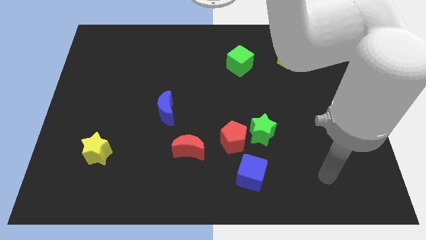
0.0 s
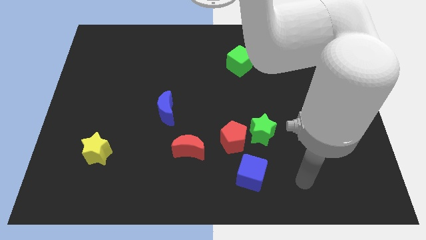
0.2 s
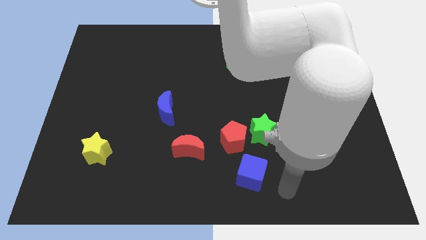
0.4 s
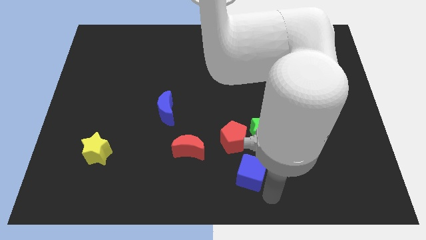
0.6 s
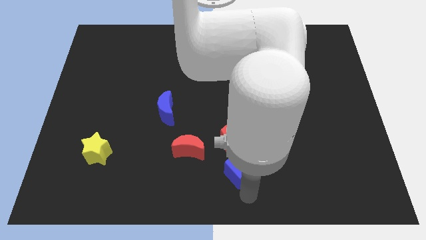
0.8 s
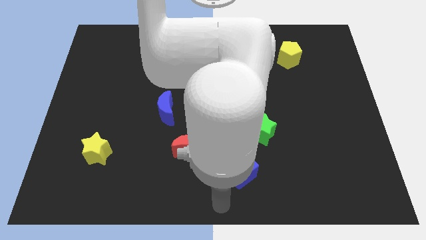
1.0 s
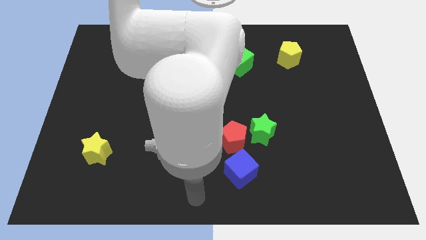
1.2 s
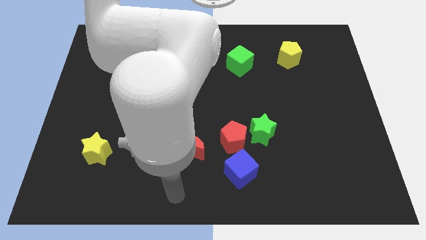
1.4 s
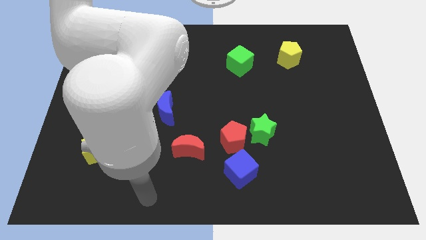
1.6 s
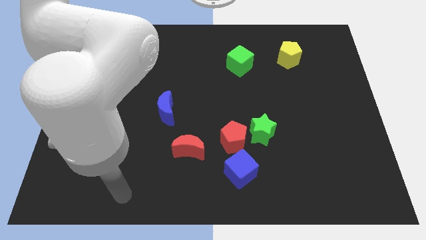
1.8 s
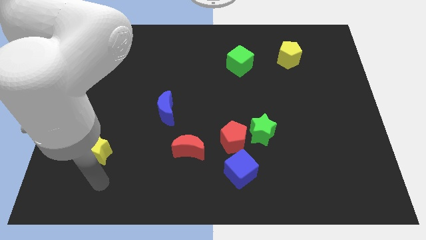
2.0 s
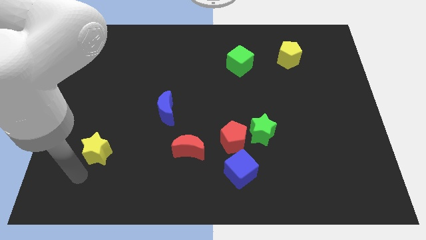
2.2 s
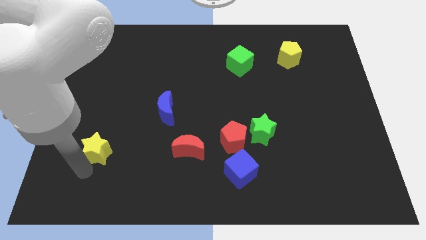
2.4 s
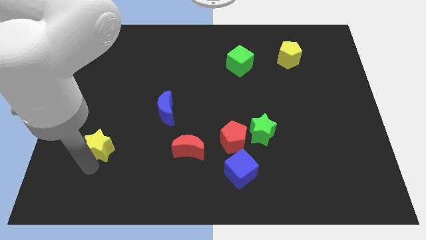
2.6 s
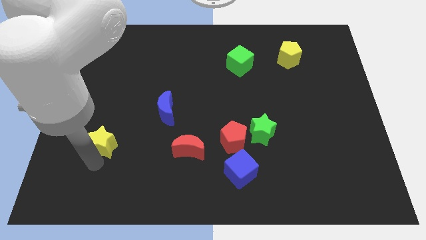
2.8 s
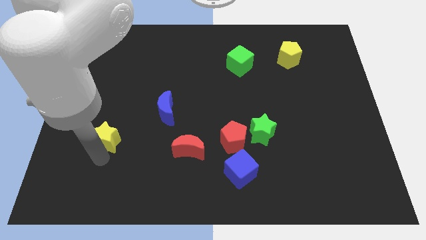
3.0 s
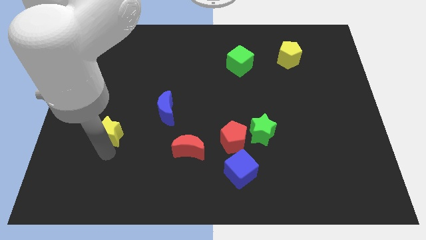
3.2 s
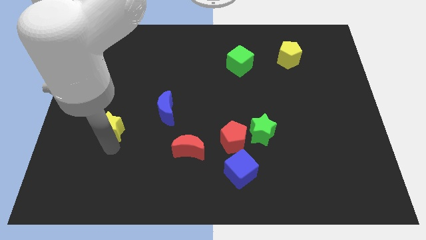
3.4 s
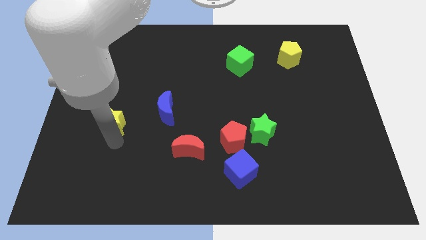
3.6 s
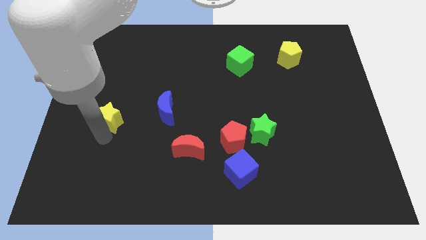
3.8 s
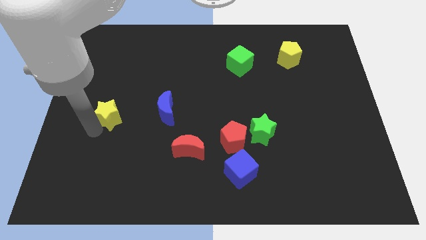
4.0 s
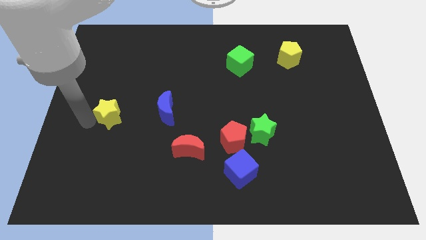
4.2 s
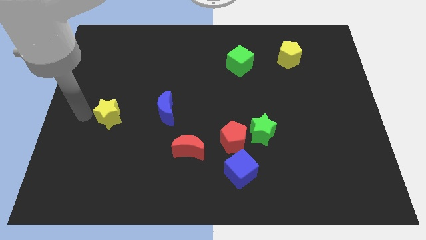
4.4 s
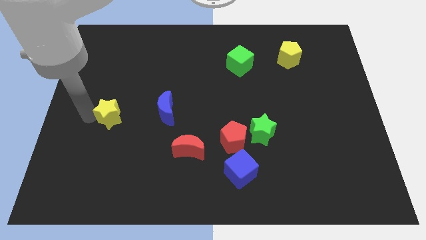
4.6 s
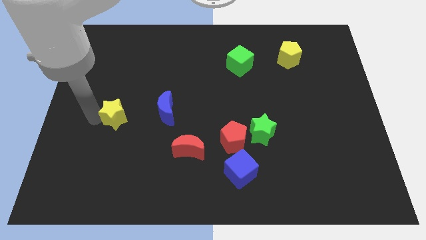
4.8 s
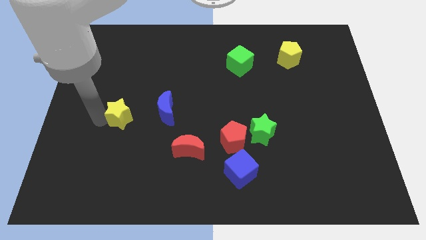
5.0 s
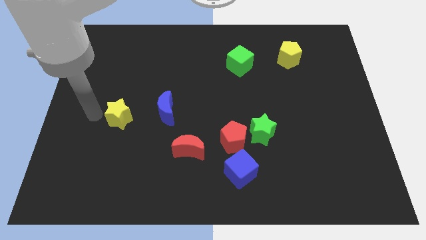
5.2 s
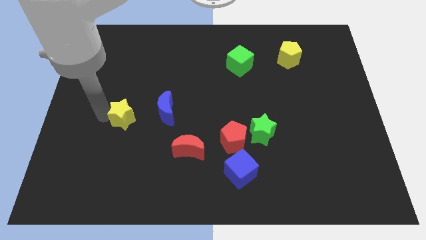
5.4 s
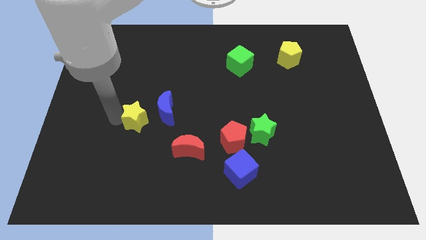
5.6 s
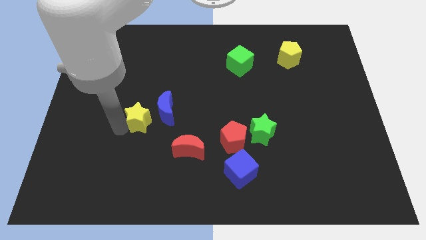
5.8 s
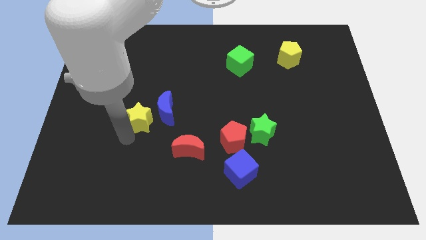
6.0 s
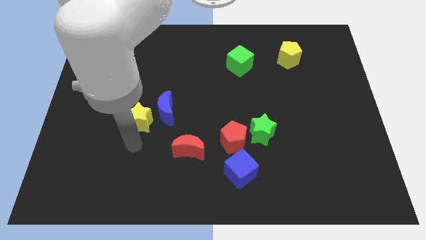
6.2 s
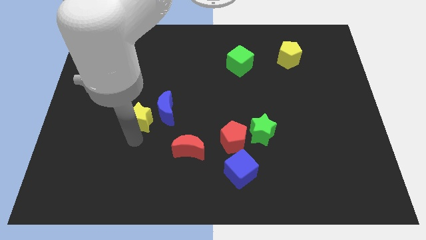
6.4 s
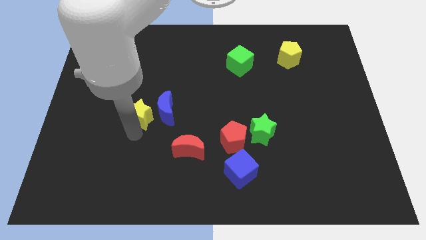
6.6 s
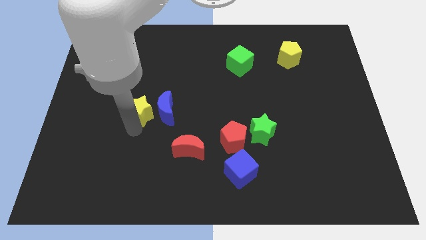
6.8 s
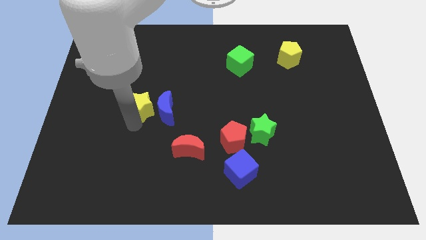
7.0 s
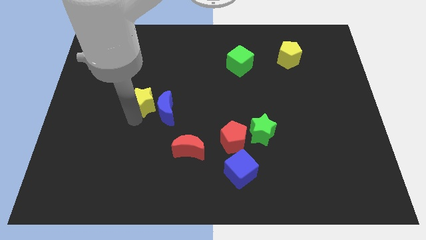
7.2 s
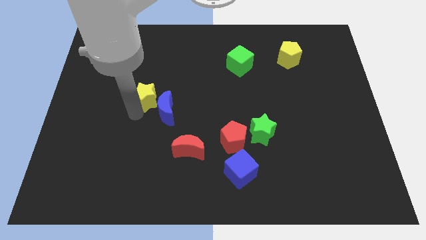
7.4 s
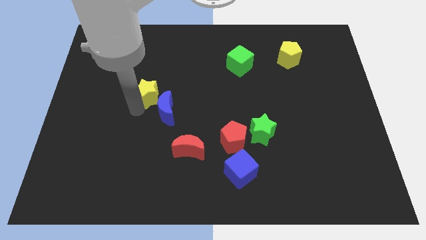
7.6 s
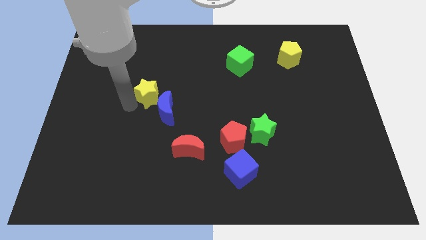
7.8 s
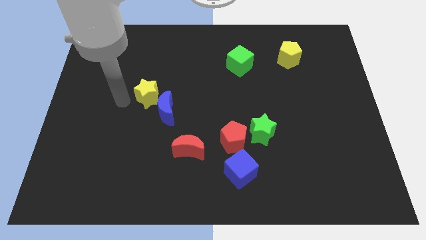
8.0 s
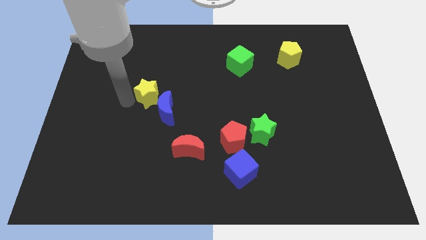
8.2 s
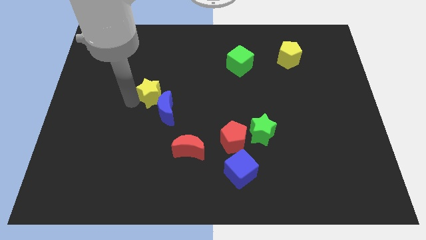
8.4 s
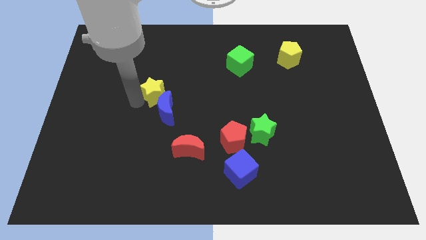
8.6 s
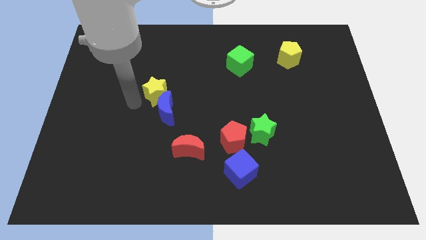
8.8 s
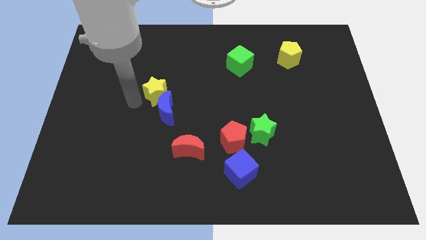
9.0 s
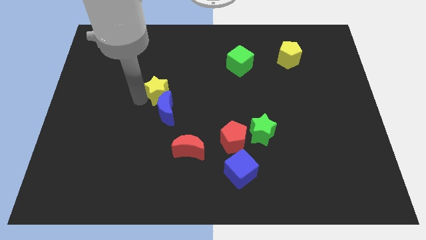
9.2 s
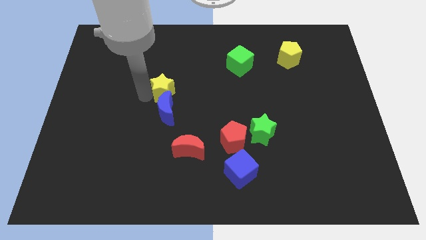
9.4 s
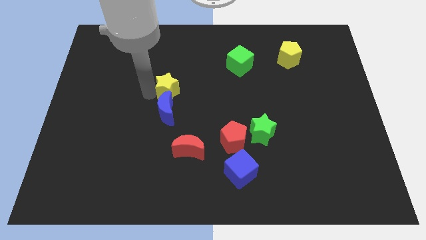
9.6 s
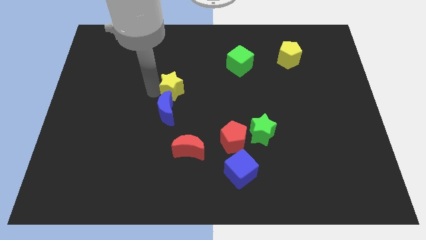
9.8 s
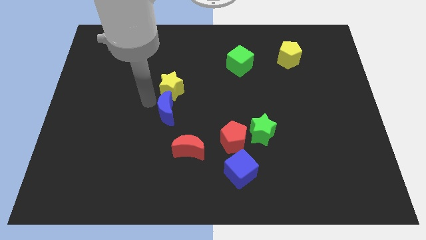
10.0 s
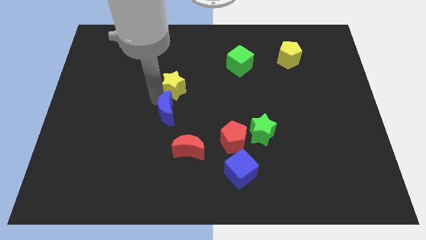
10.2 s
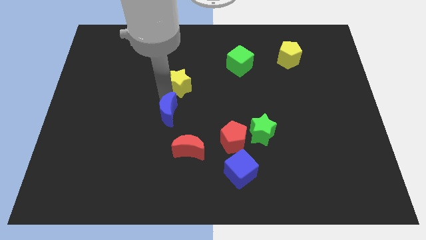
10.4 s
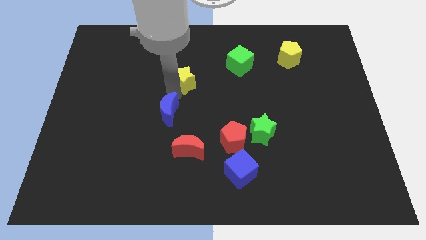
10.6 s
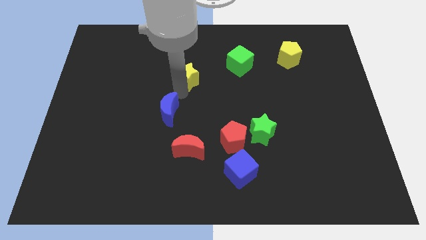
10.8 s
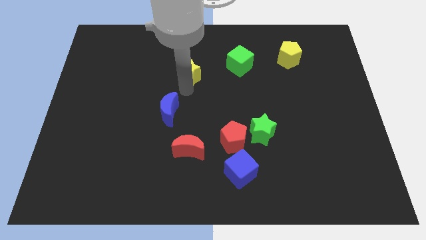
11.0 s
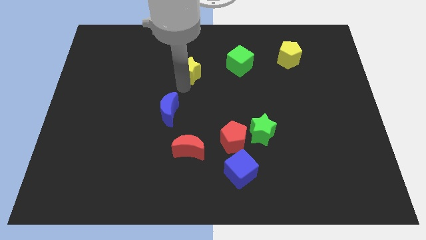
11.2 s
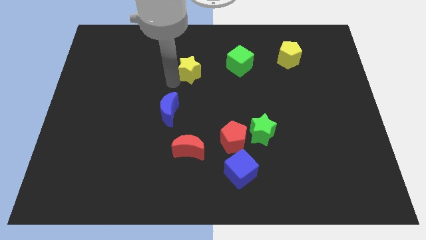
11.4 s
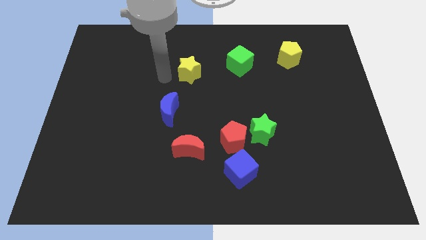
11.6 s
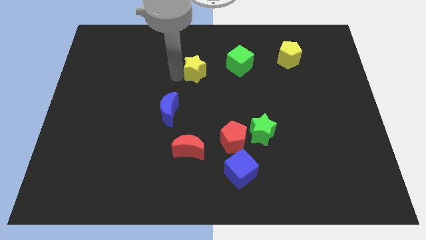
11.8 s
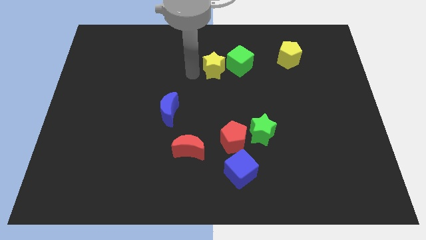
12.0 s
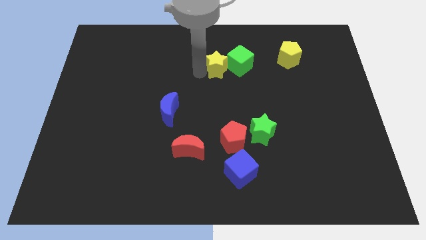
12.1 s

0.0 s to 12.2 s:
put the yellow star next to the green cube

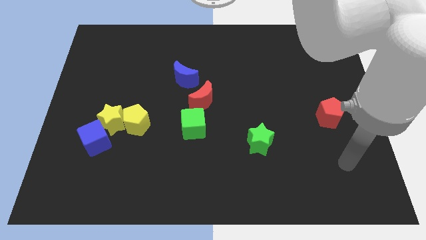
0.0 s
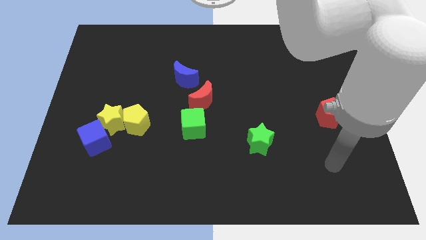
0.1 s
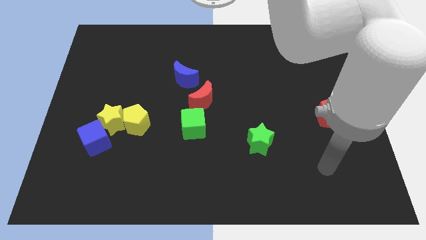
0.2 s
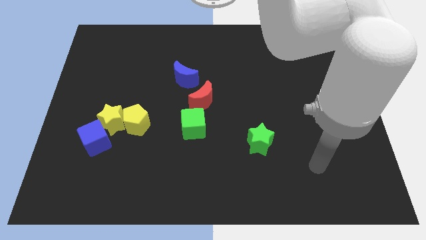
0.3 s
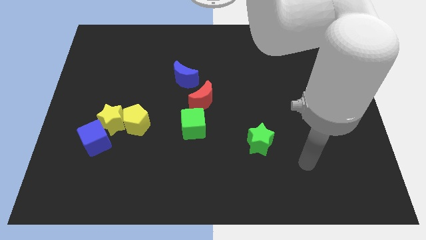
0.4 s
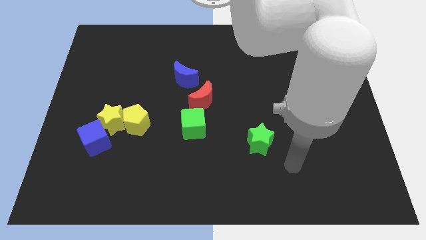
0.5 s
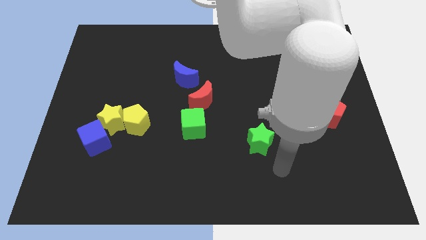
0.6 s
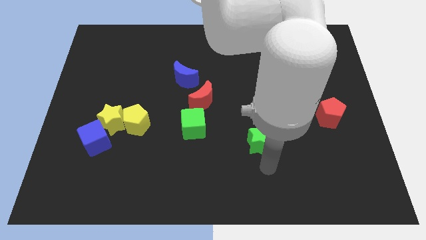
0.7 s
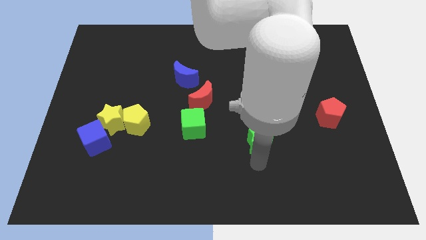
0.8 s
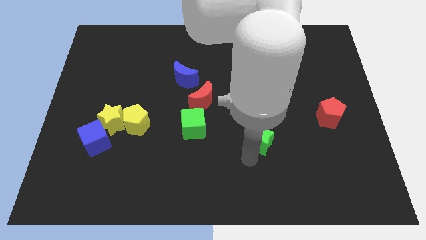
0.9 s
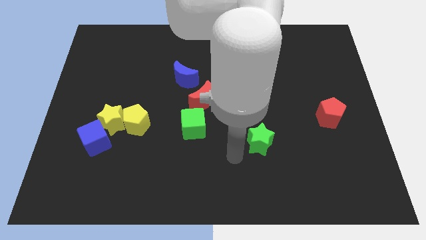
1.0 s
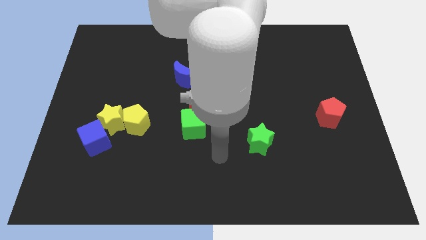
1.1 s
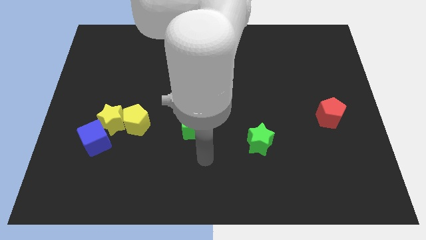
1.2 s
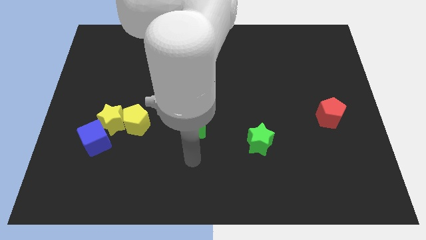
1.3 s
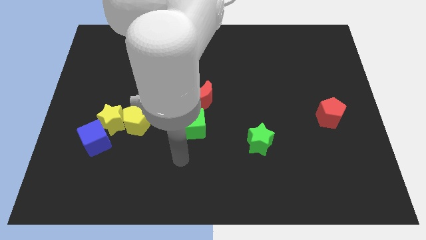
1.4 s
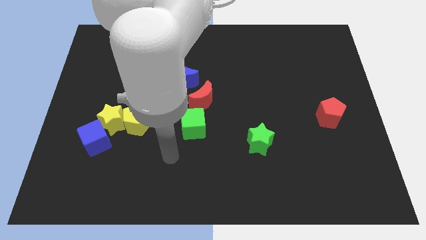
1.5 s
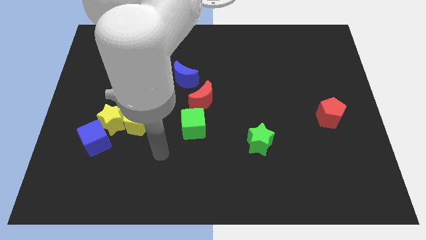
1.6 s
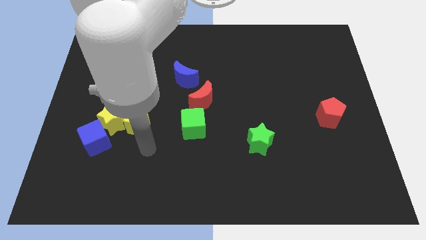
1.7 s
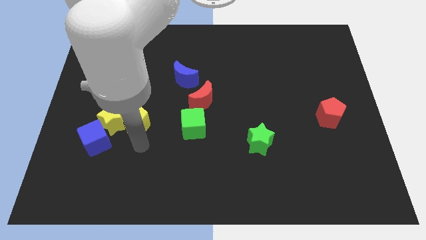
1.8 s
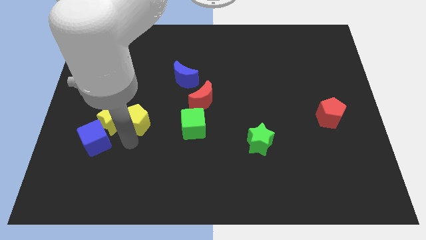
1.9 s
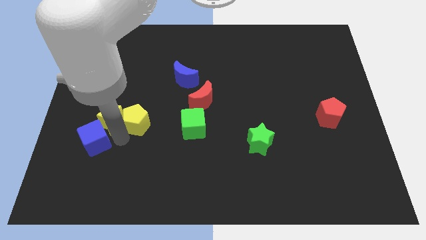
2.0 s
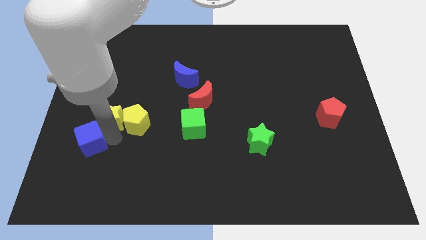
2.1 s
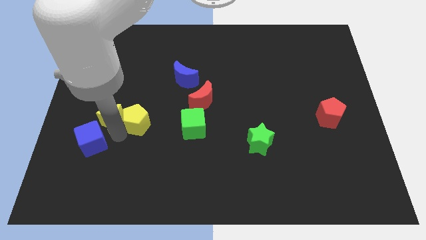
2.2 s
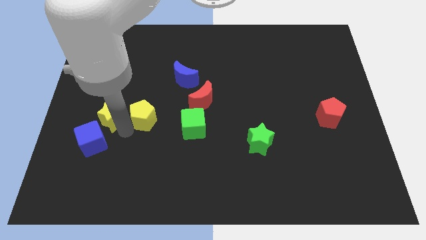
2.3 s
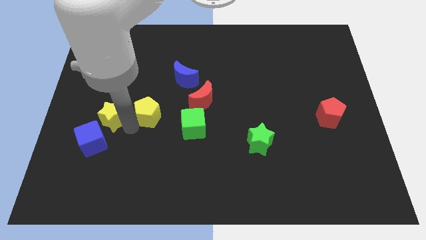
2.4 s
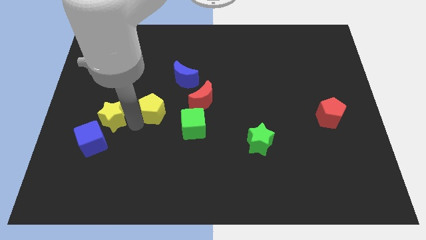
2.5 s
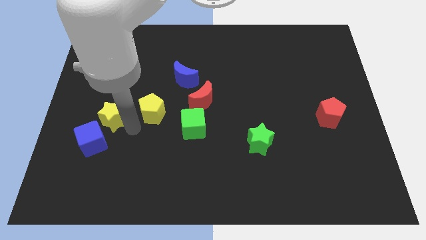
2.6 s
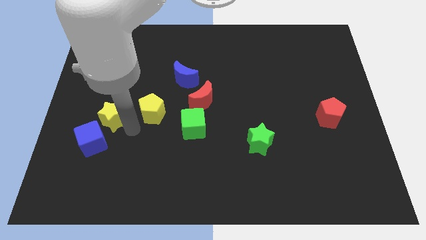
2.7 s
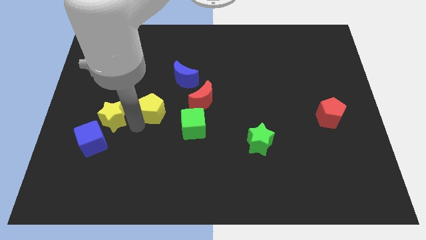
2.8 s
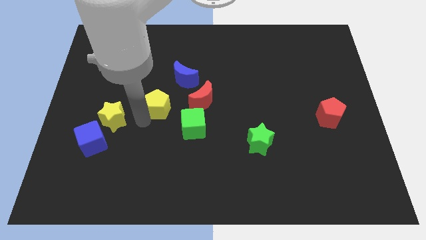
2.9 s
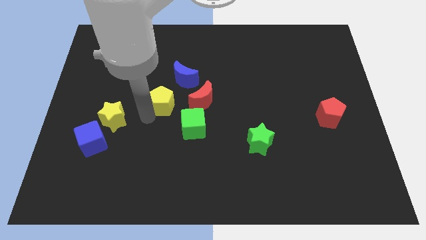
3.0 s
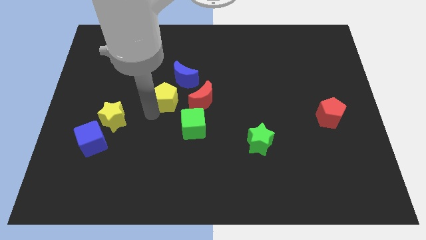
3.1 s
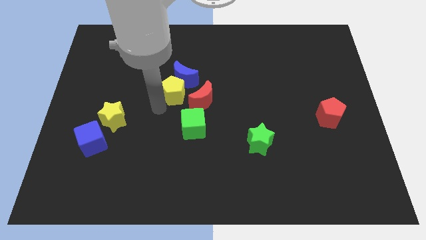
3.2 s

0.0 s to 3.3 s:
slide the yellow pentagon close to the blue moon
